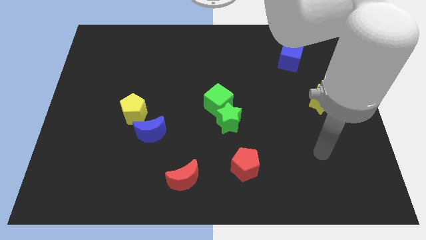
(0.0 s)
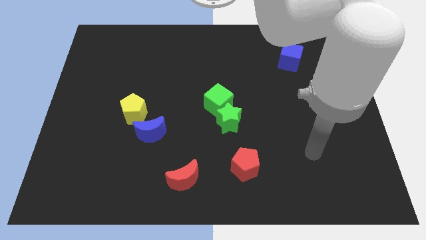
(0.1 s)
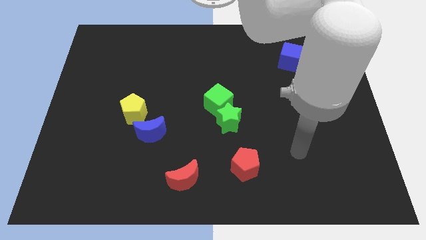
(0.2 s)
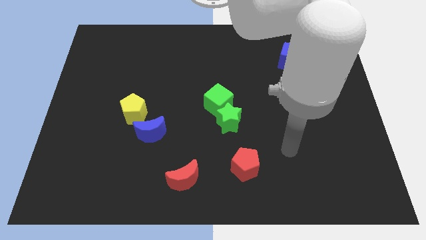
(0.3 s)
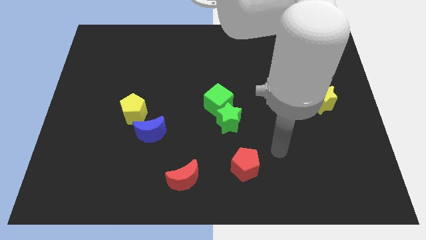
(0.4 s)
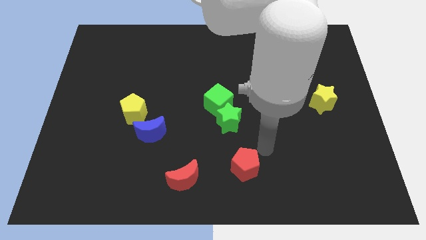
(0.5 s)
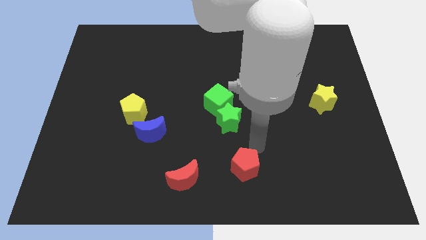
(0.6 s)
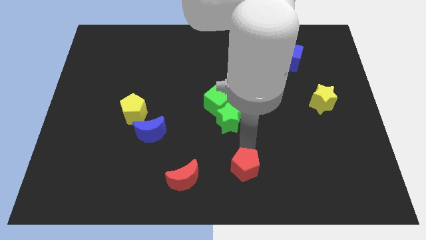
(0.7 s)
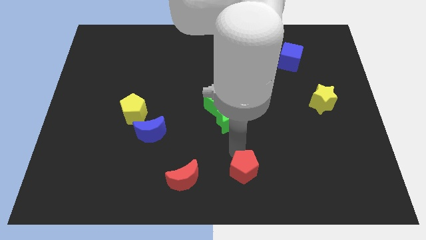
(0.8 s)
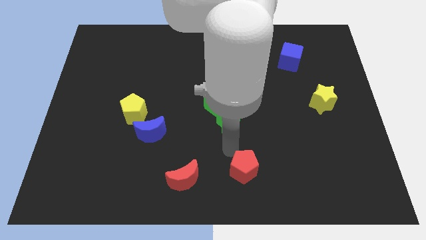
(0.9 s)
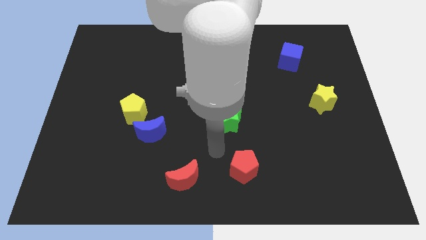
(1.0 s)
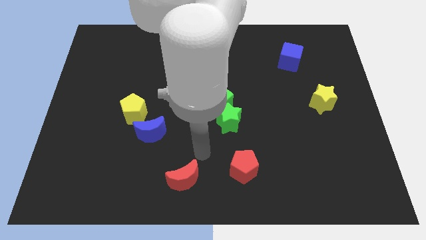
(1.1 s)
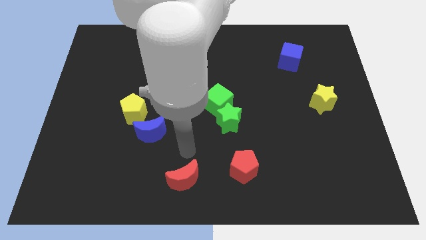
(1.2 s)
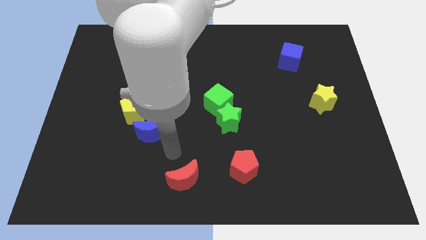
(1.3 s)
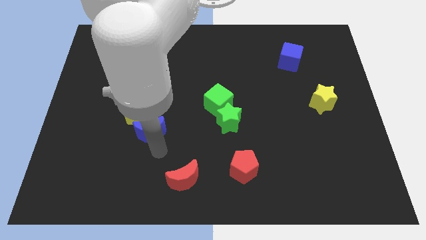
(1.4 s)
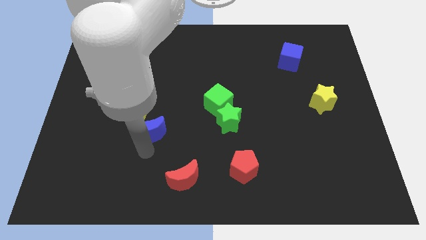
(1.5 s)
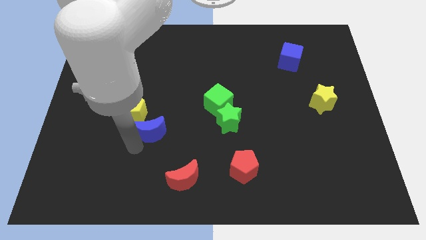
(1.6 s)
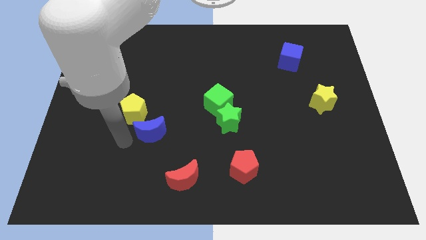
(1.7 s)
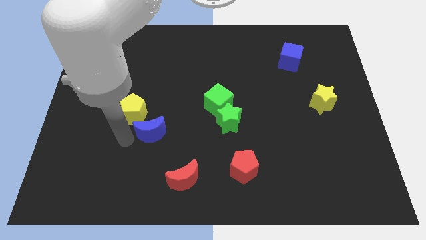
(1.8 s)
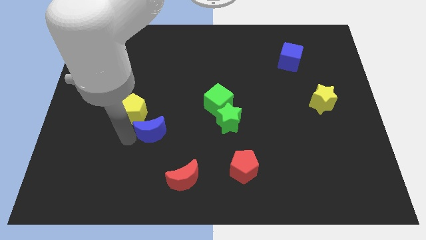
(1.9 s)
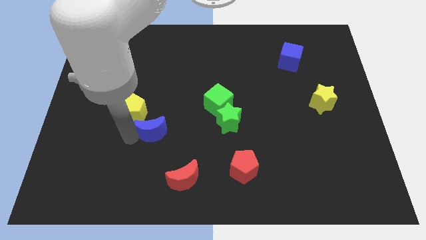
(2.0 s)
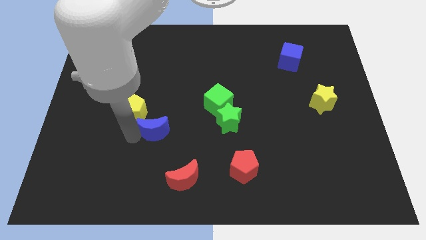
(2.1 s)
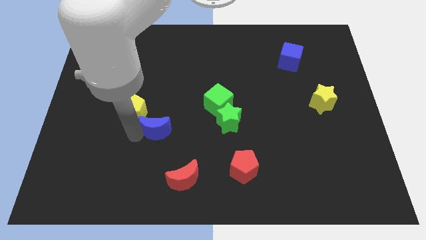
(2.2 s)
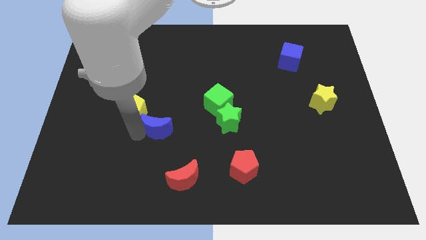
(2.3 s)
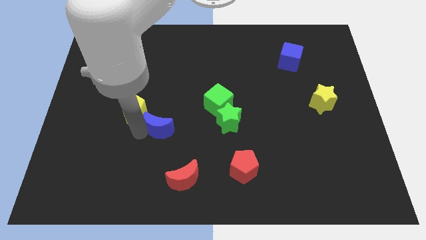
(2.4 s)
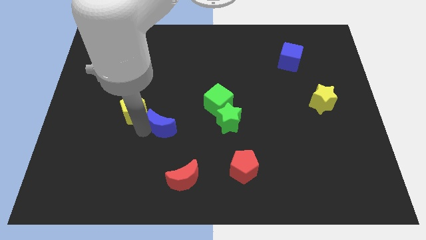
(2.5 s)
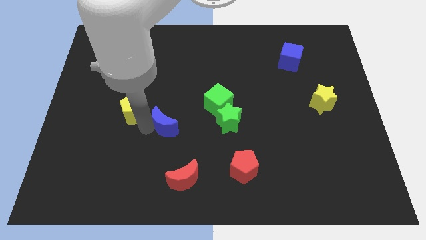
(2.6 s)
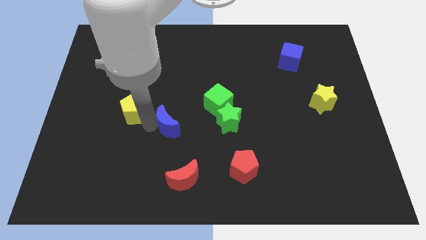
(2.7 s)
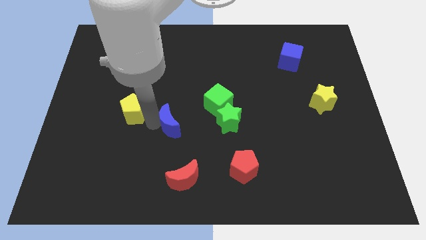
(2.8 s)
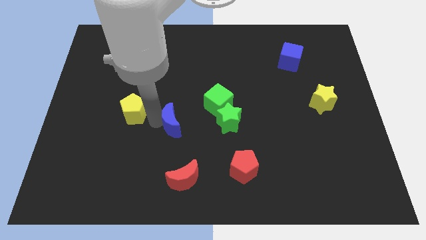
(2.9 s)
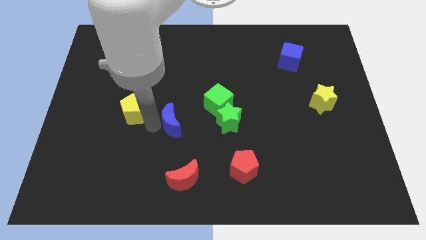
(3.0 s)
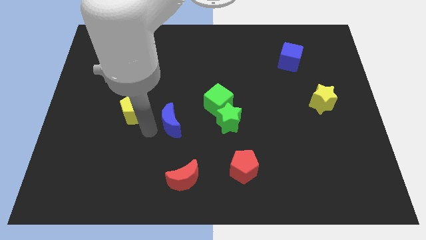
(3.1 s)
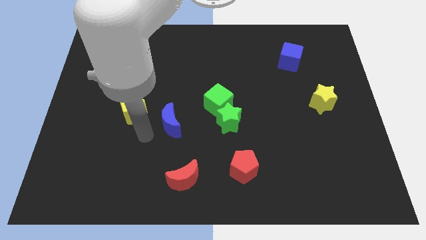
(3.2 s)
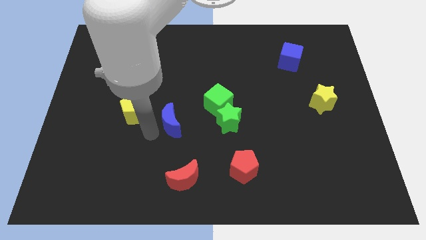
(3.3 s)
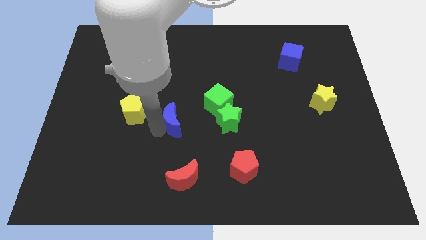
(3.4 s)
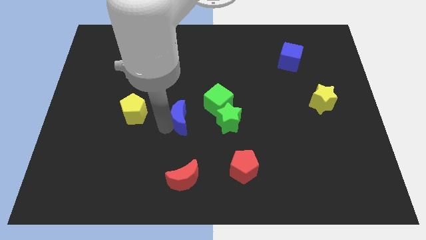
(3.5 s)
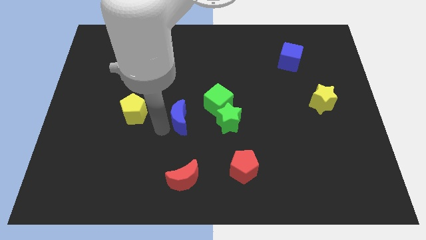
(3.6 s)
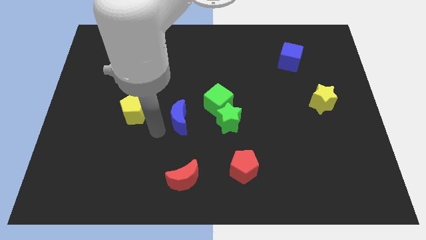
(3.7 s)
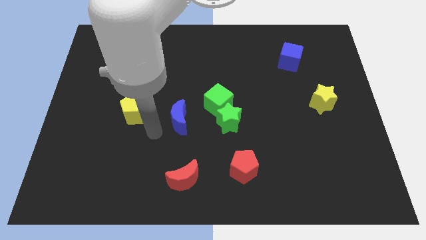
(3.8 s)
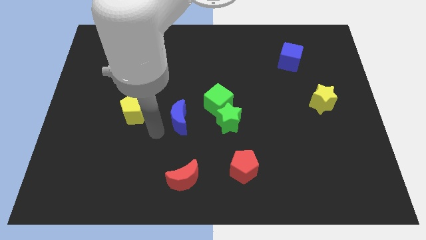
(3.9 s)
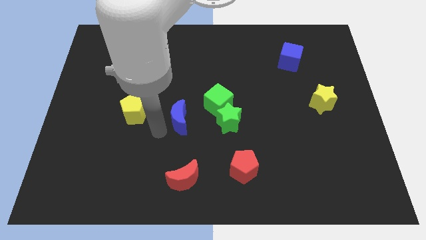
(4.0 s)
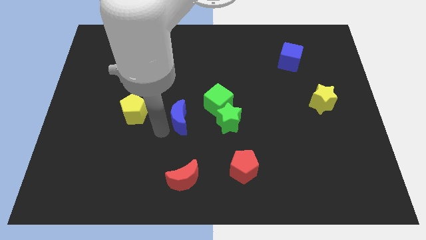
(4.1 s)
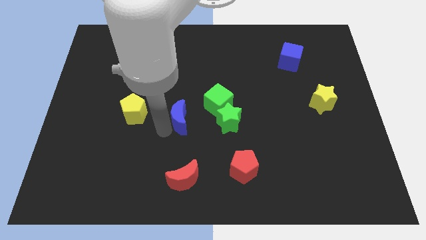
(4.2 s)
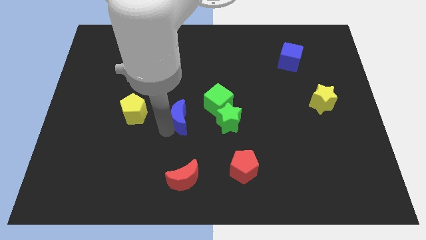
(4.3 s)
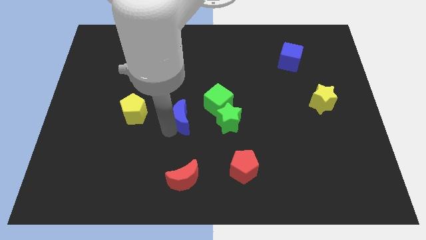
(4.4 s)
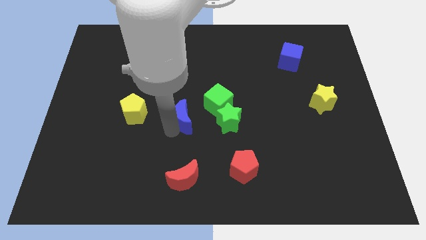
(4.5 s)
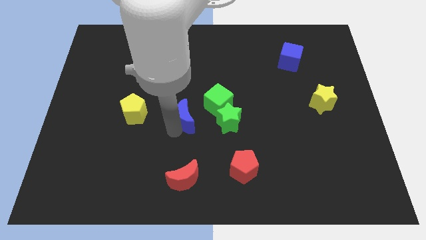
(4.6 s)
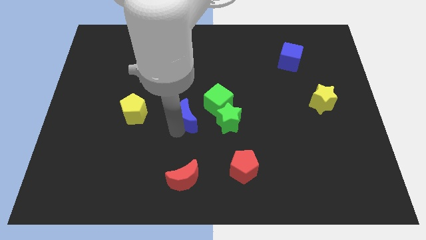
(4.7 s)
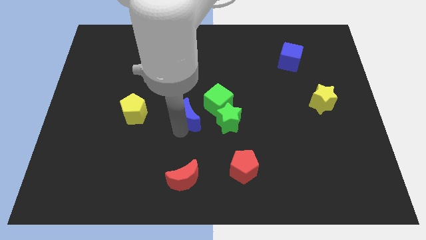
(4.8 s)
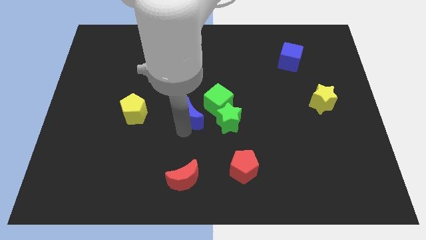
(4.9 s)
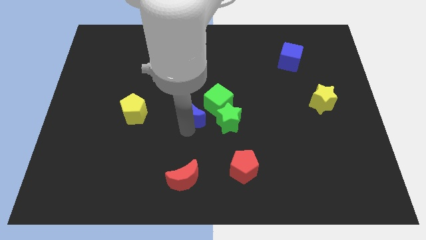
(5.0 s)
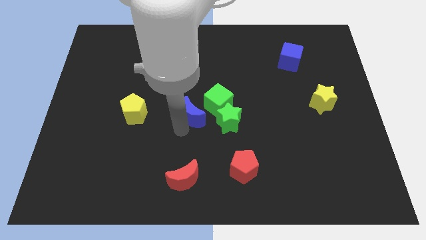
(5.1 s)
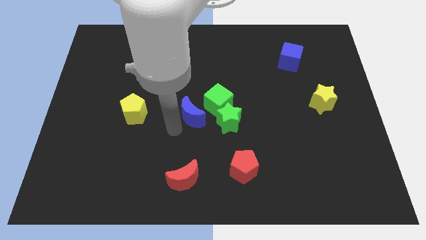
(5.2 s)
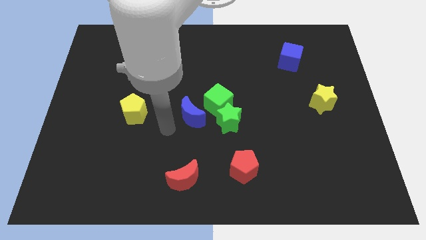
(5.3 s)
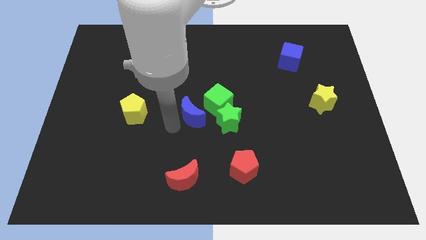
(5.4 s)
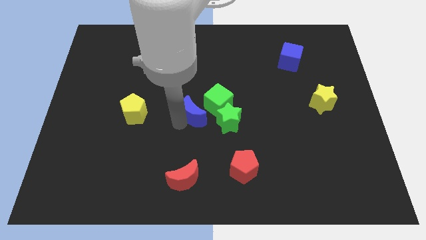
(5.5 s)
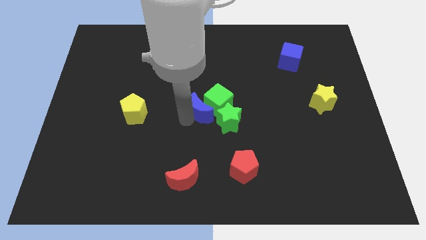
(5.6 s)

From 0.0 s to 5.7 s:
move the blue moon towards the green cube

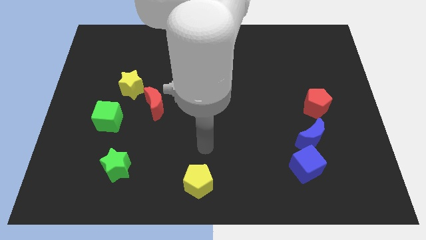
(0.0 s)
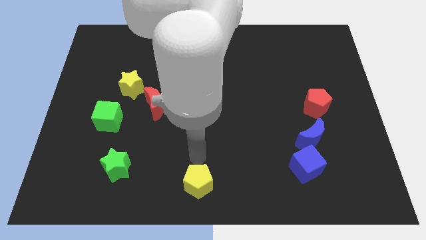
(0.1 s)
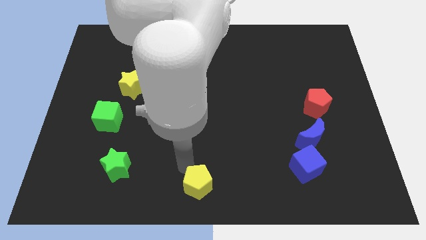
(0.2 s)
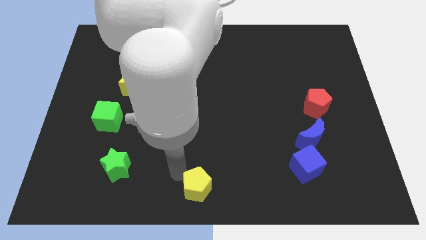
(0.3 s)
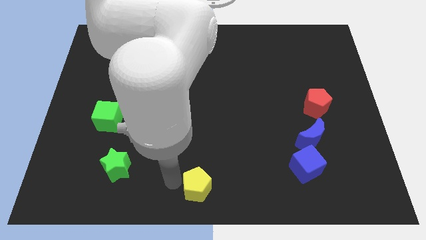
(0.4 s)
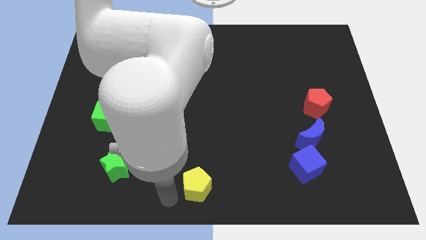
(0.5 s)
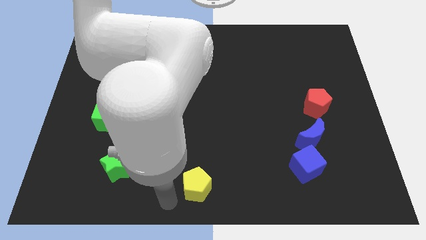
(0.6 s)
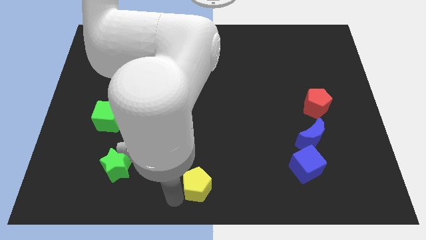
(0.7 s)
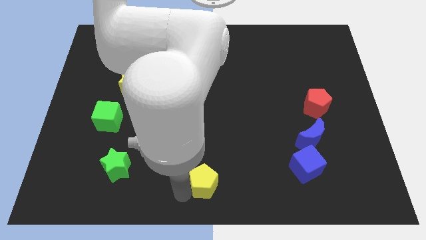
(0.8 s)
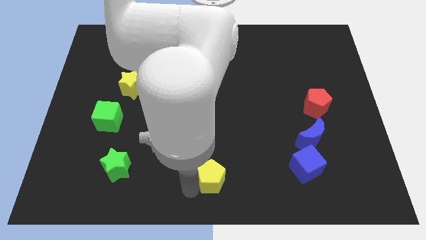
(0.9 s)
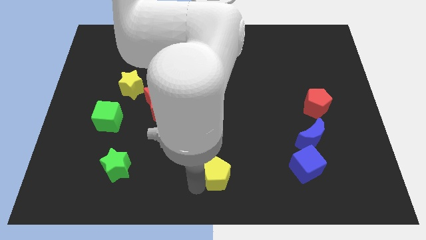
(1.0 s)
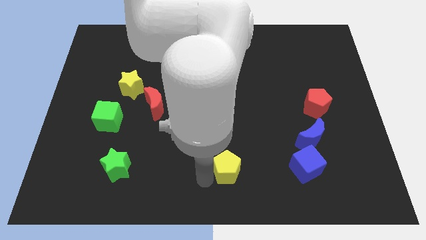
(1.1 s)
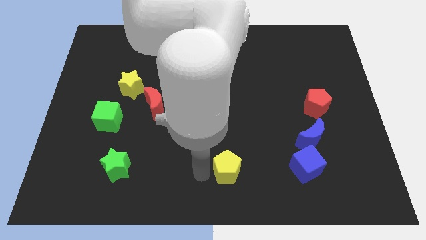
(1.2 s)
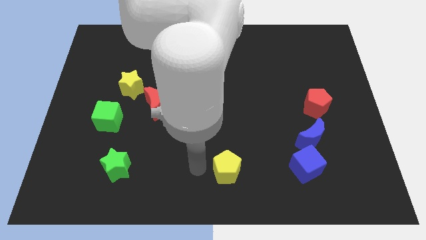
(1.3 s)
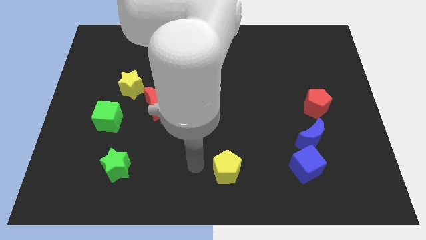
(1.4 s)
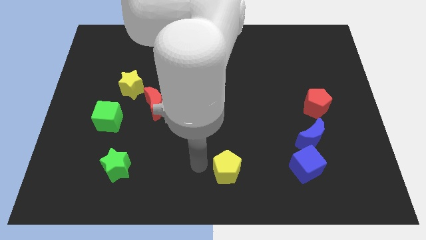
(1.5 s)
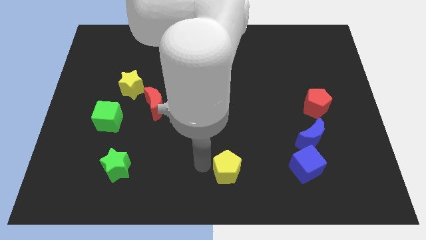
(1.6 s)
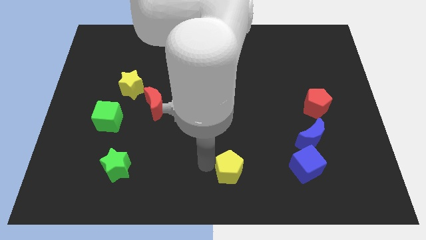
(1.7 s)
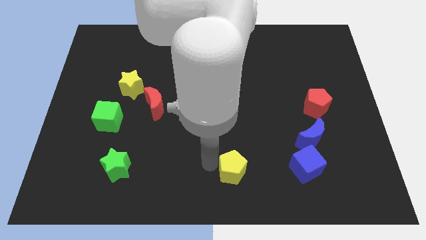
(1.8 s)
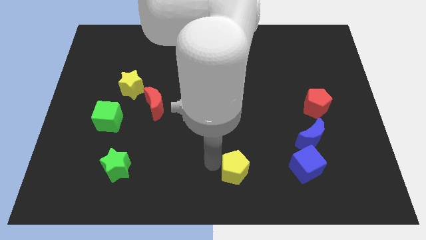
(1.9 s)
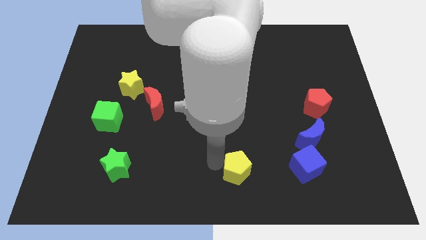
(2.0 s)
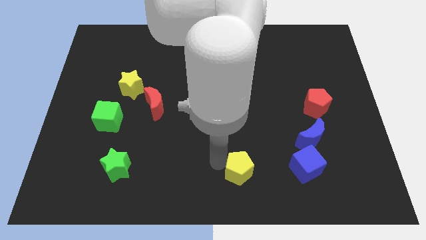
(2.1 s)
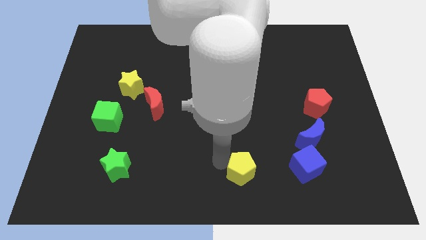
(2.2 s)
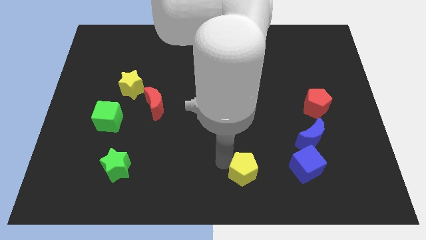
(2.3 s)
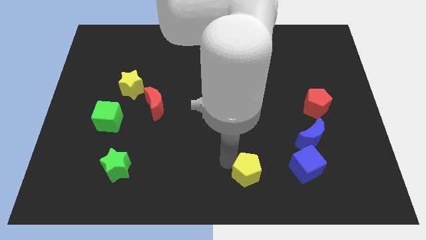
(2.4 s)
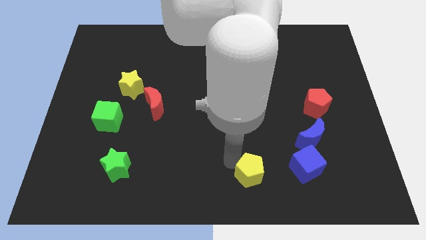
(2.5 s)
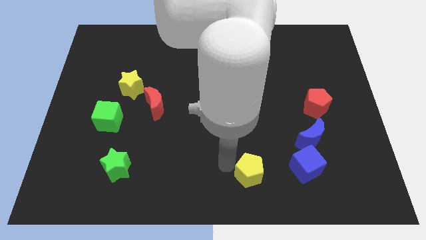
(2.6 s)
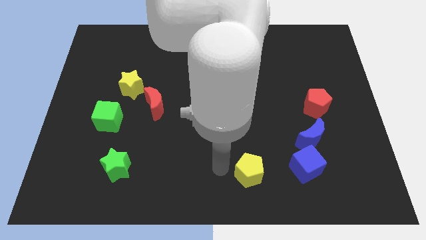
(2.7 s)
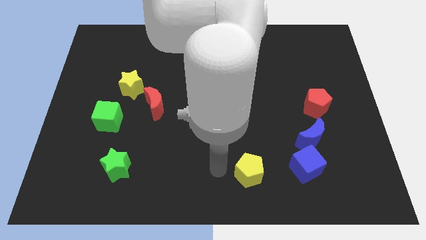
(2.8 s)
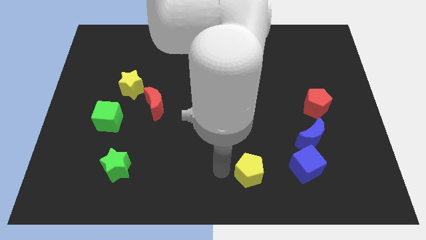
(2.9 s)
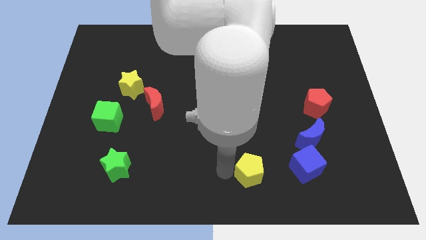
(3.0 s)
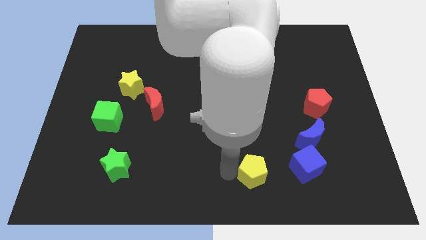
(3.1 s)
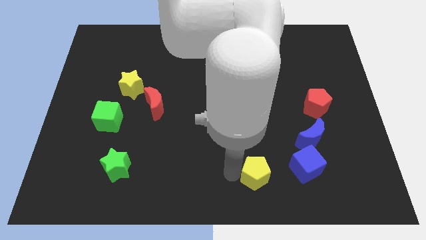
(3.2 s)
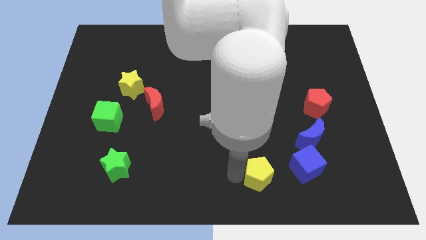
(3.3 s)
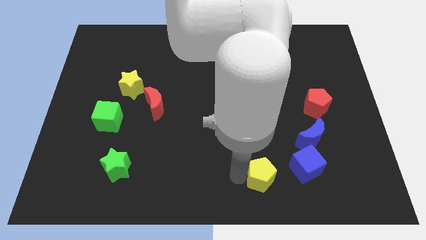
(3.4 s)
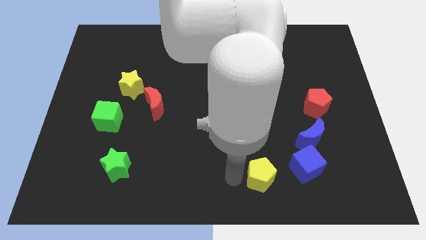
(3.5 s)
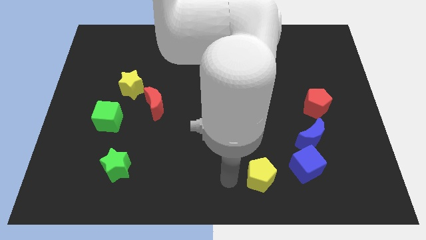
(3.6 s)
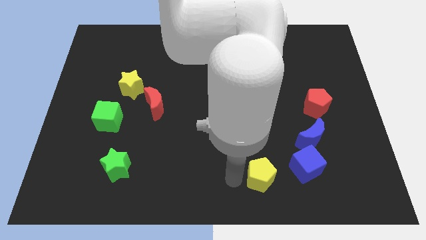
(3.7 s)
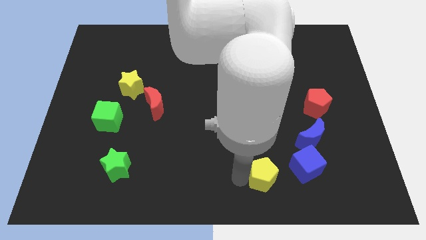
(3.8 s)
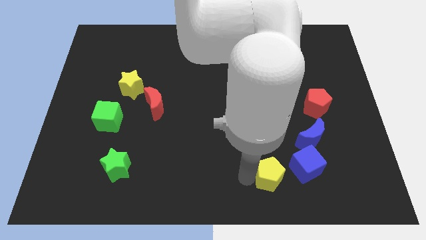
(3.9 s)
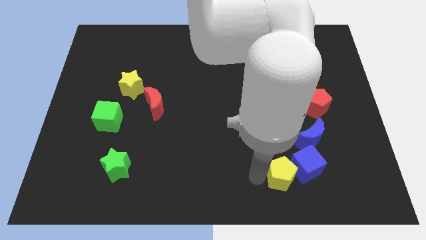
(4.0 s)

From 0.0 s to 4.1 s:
put the yellow pentagon close to the blue cube
